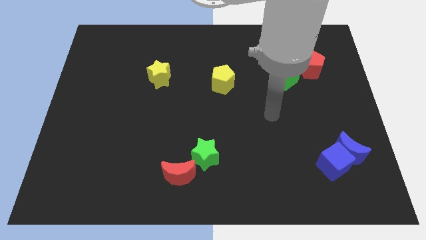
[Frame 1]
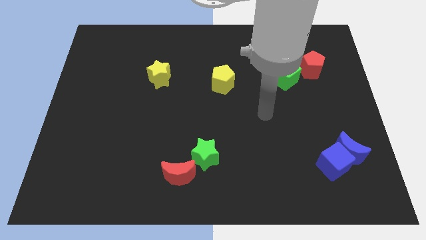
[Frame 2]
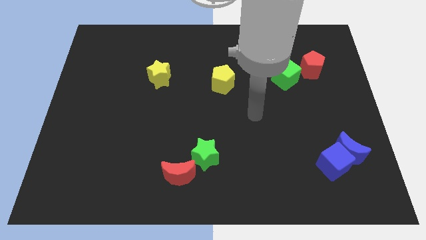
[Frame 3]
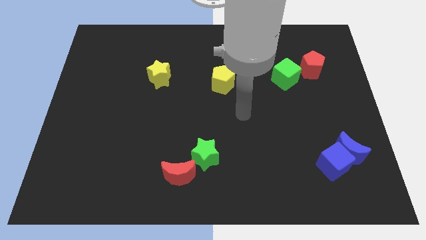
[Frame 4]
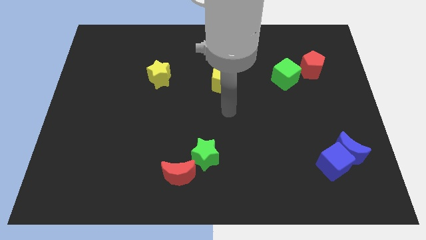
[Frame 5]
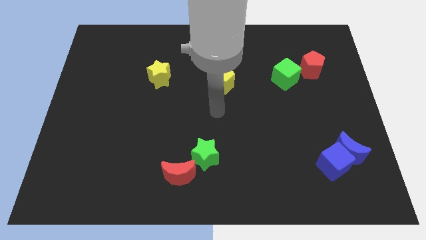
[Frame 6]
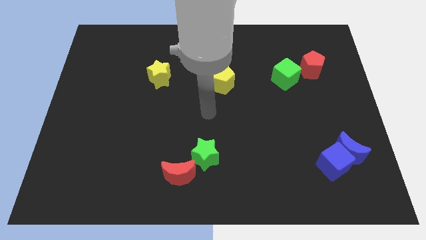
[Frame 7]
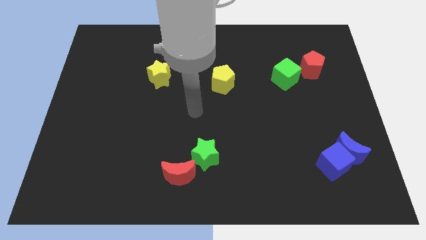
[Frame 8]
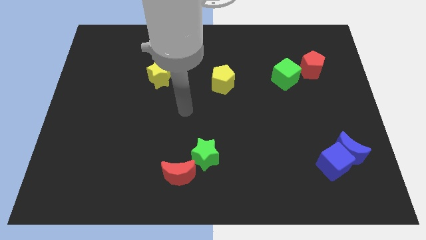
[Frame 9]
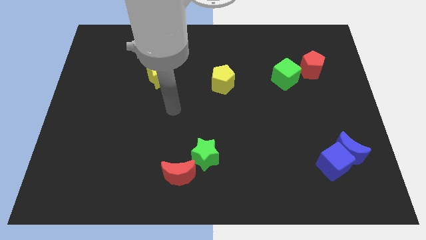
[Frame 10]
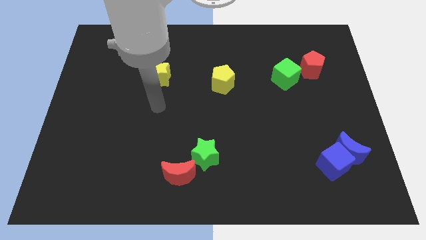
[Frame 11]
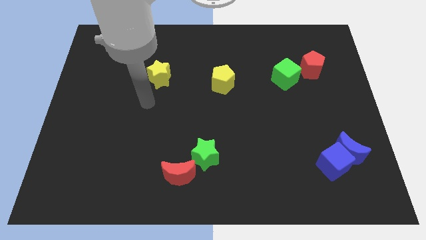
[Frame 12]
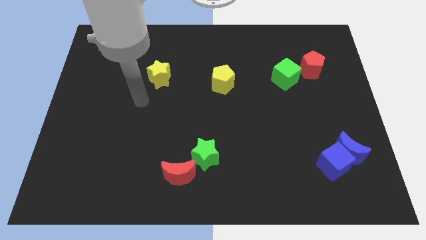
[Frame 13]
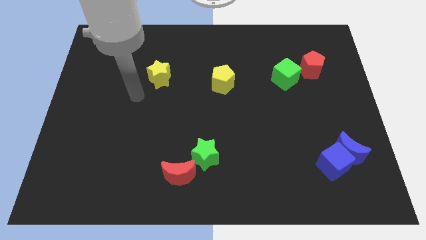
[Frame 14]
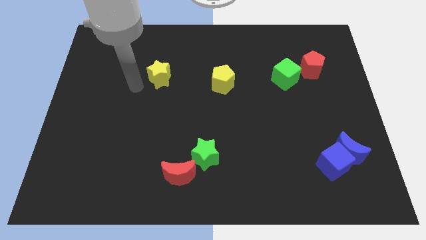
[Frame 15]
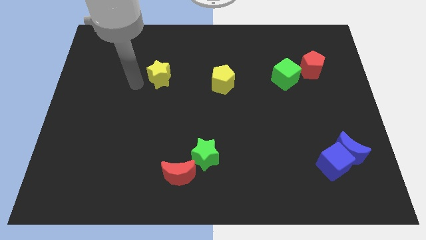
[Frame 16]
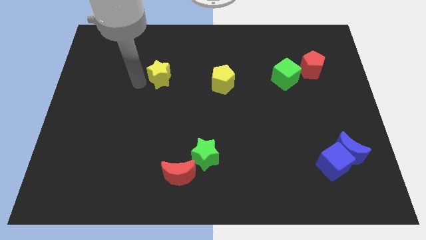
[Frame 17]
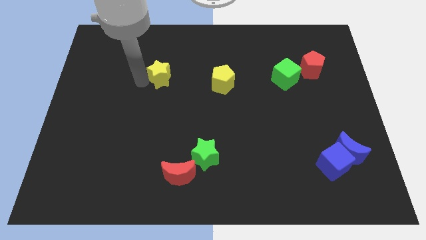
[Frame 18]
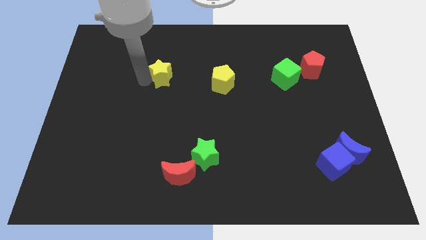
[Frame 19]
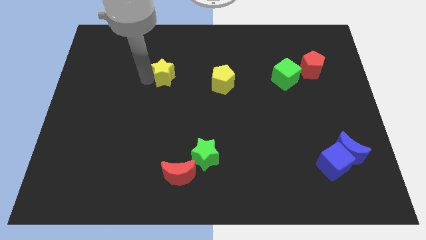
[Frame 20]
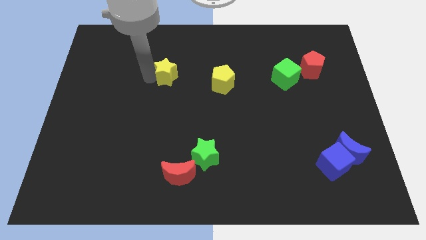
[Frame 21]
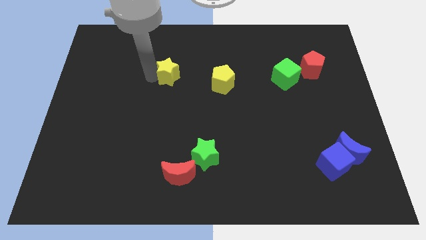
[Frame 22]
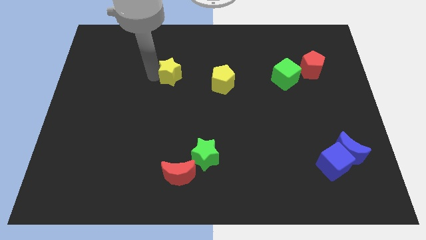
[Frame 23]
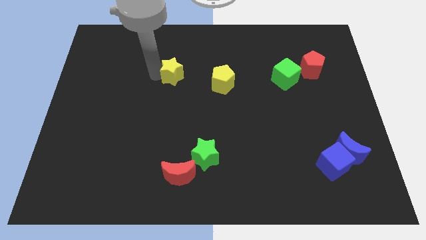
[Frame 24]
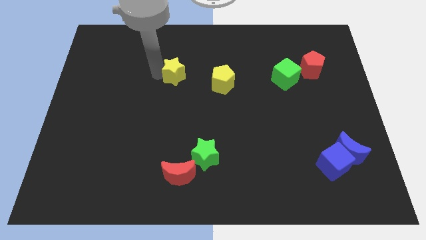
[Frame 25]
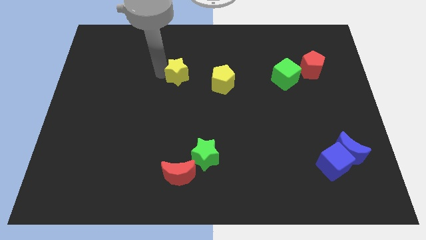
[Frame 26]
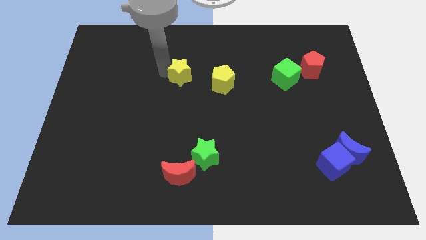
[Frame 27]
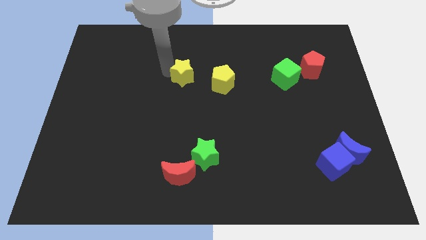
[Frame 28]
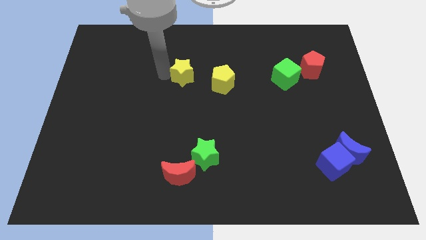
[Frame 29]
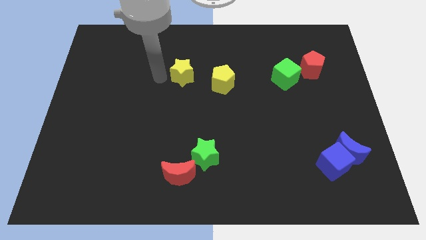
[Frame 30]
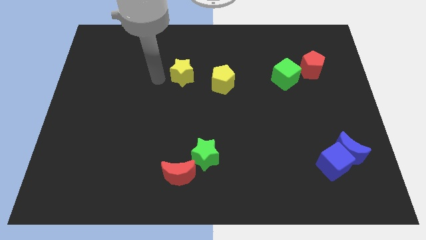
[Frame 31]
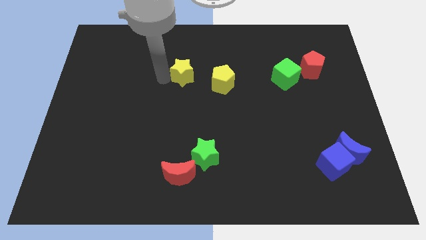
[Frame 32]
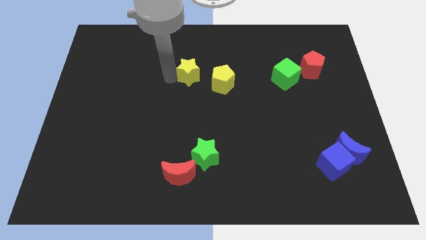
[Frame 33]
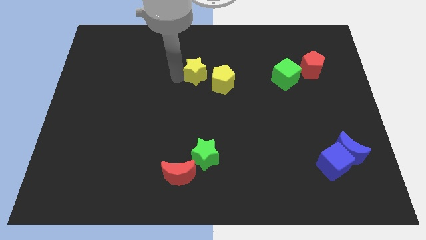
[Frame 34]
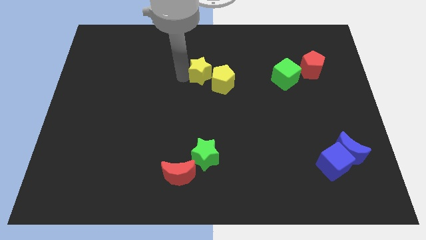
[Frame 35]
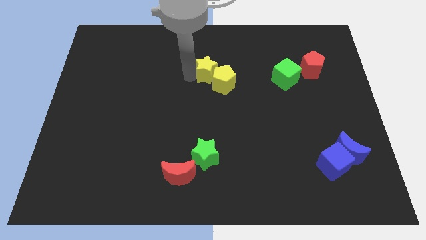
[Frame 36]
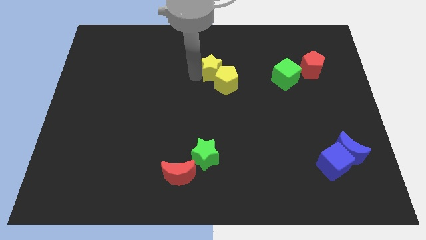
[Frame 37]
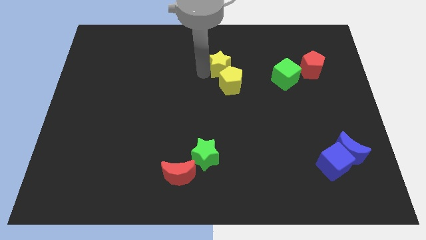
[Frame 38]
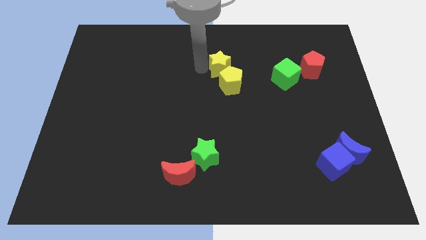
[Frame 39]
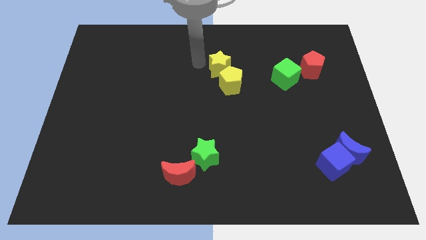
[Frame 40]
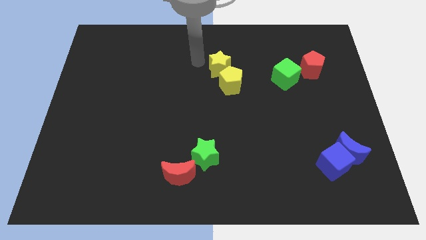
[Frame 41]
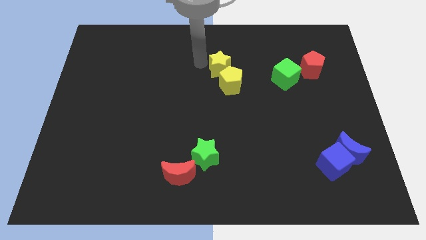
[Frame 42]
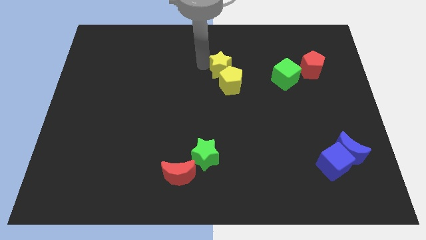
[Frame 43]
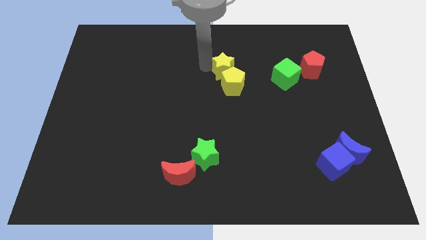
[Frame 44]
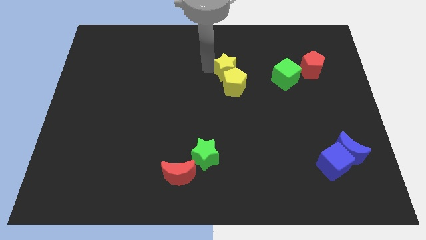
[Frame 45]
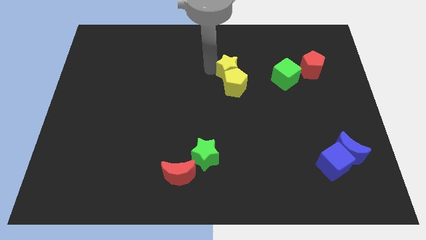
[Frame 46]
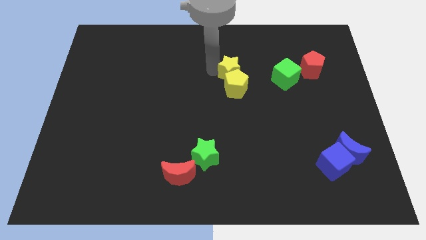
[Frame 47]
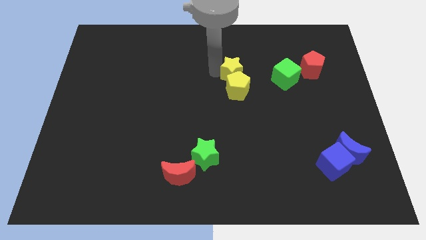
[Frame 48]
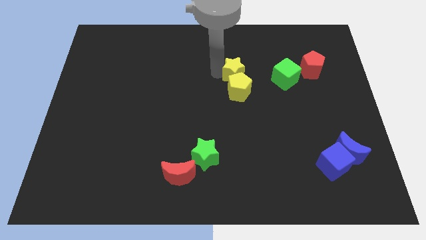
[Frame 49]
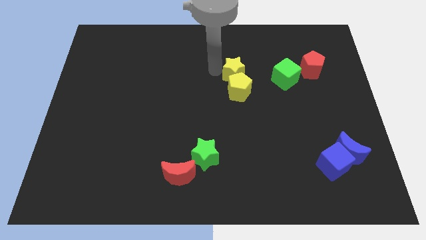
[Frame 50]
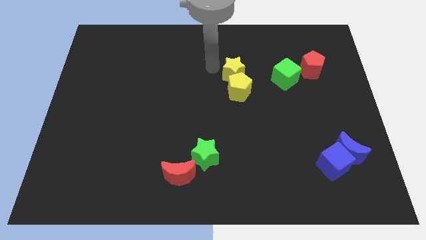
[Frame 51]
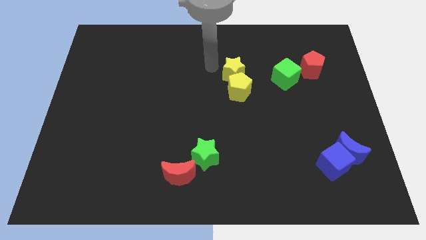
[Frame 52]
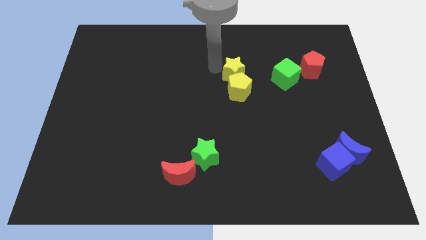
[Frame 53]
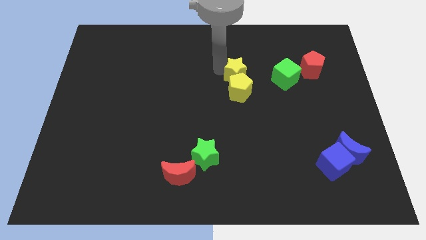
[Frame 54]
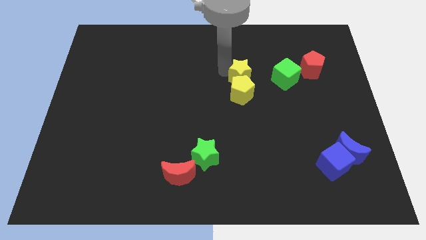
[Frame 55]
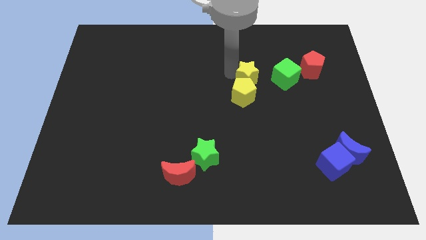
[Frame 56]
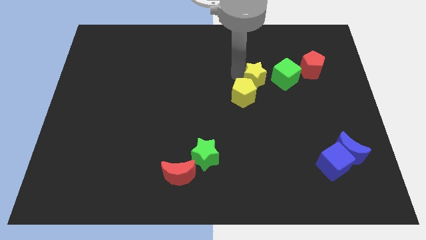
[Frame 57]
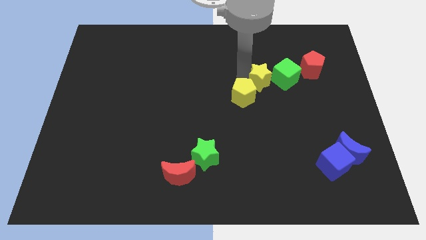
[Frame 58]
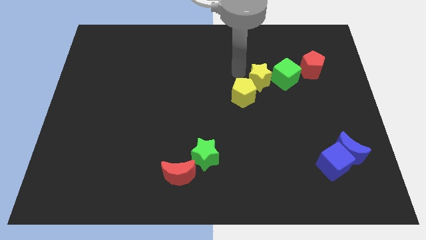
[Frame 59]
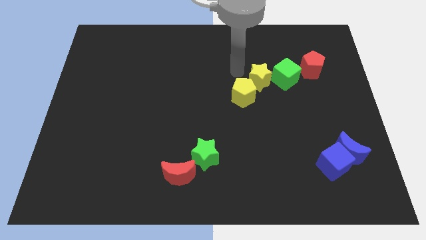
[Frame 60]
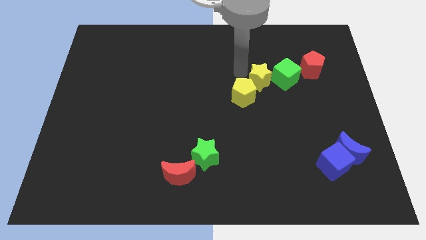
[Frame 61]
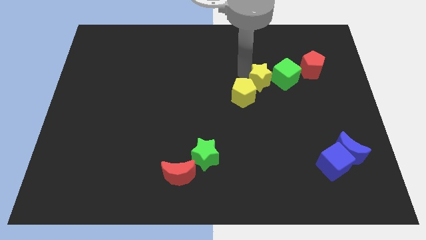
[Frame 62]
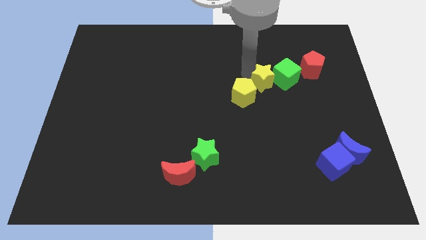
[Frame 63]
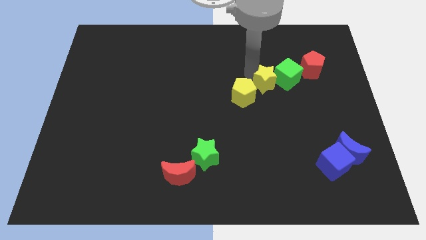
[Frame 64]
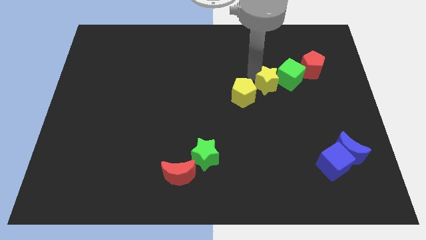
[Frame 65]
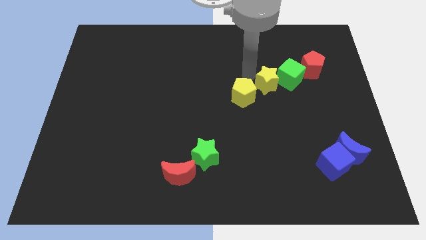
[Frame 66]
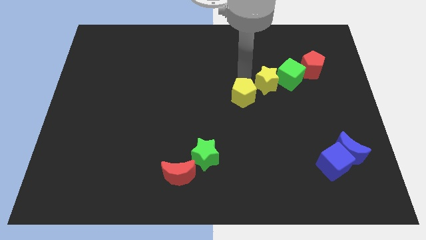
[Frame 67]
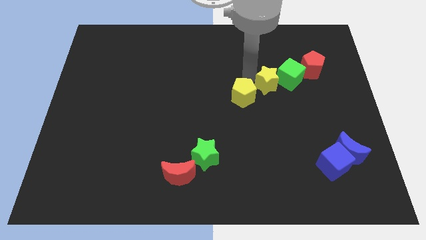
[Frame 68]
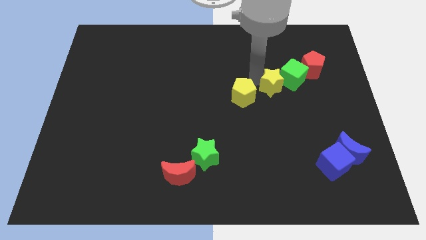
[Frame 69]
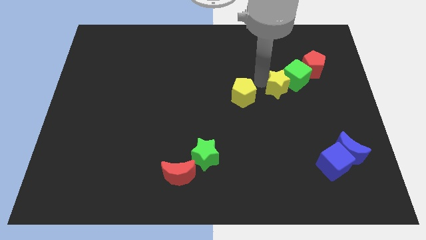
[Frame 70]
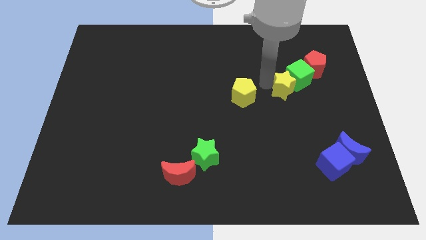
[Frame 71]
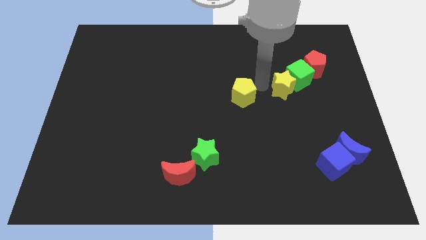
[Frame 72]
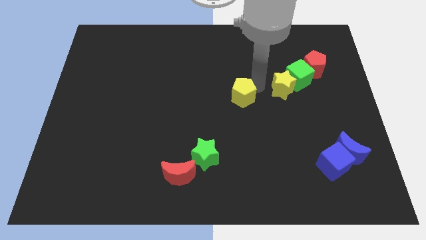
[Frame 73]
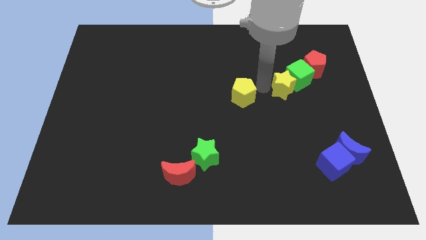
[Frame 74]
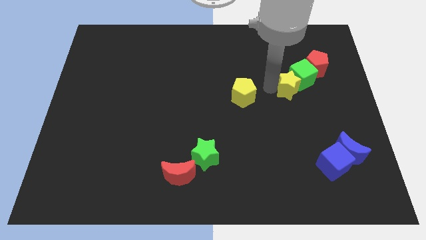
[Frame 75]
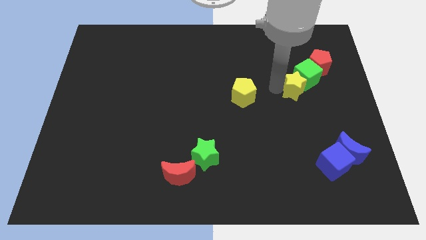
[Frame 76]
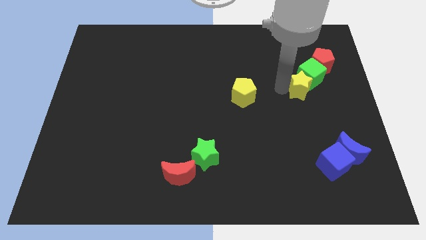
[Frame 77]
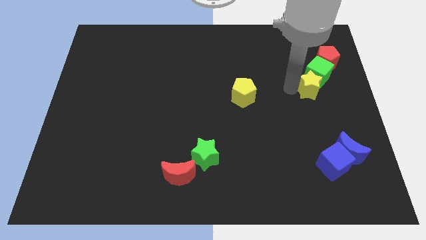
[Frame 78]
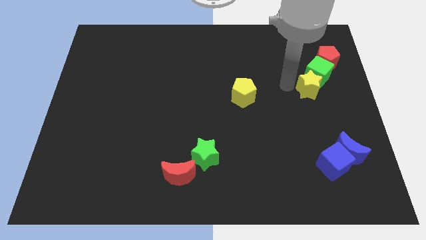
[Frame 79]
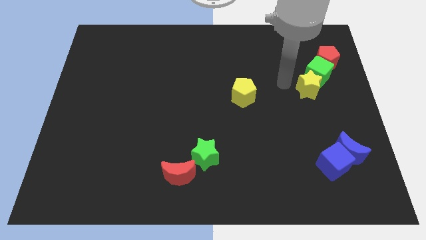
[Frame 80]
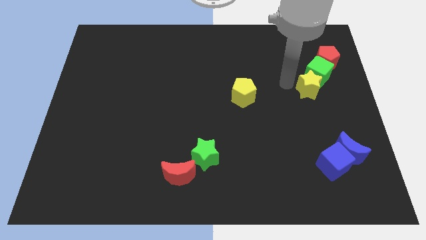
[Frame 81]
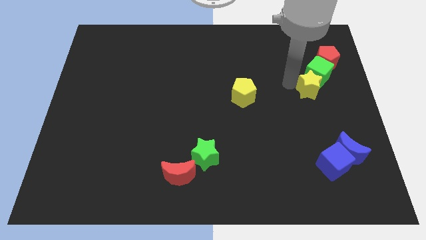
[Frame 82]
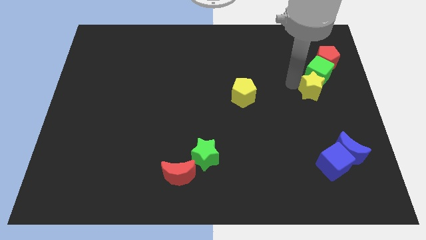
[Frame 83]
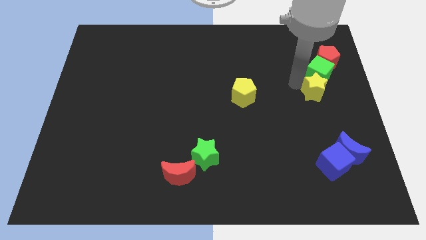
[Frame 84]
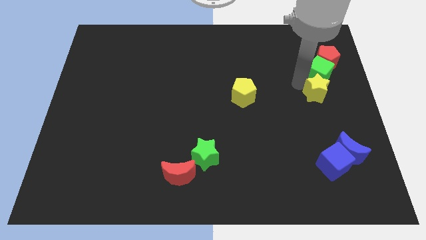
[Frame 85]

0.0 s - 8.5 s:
slide the yellow star to the right side
